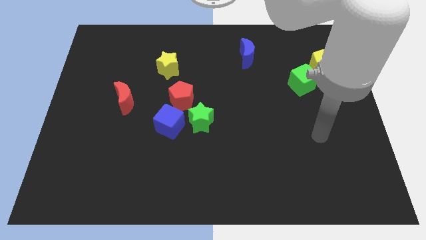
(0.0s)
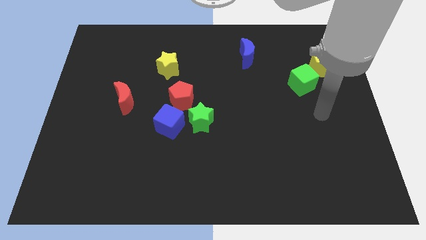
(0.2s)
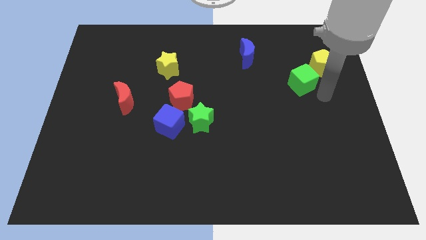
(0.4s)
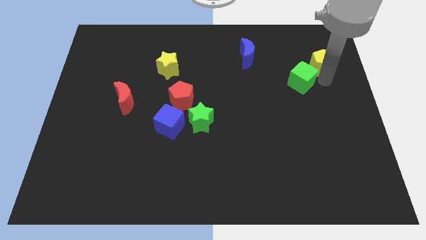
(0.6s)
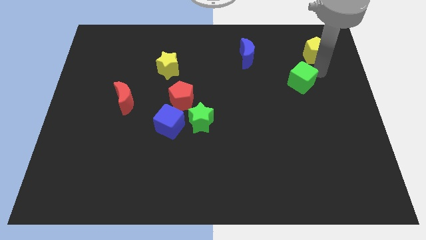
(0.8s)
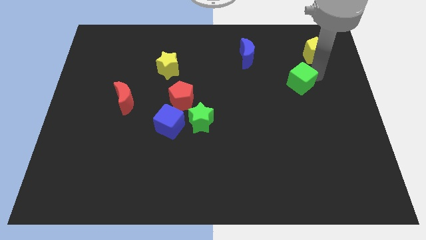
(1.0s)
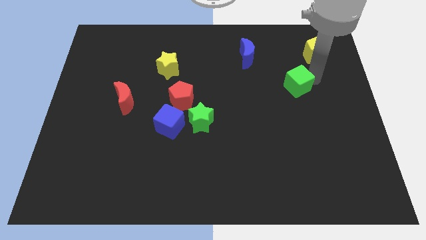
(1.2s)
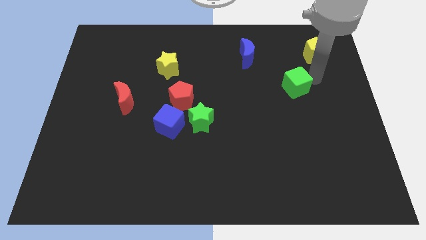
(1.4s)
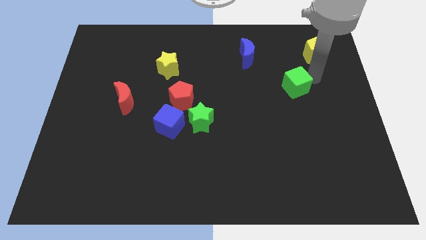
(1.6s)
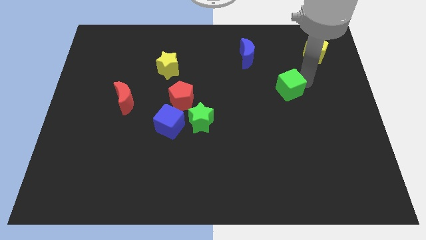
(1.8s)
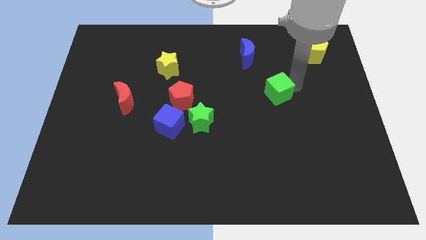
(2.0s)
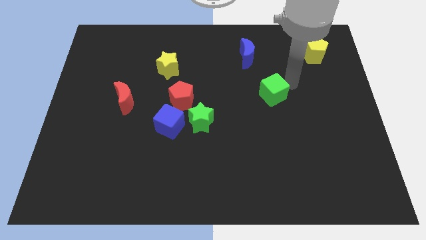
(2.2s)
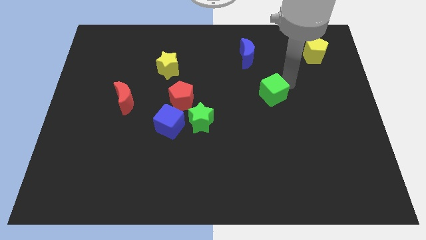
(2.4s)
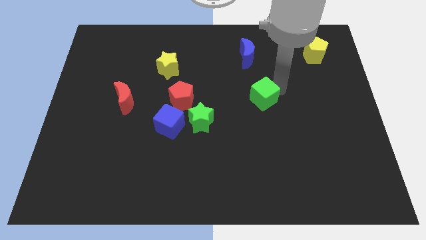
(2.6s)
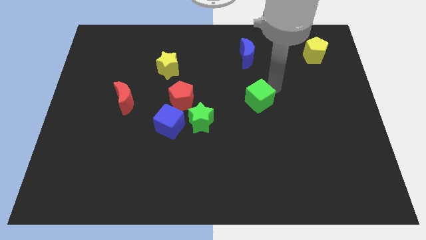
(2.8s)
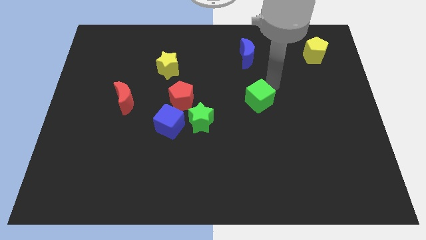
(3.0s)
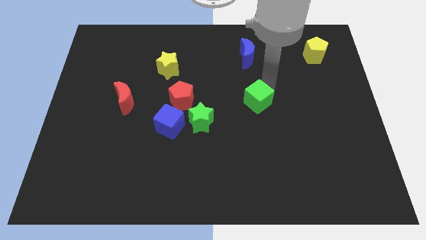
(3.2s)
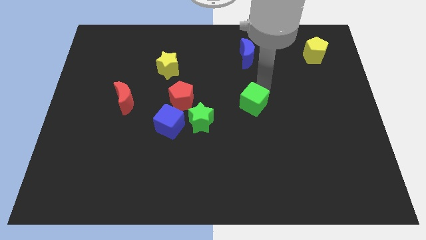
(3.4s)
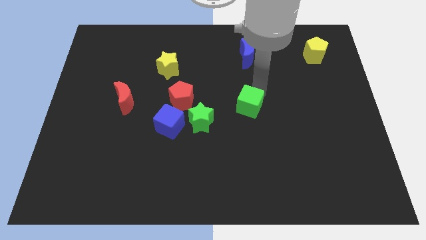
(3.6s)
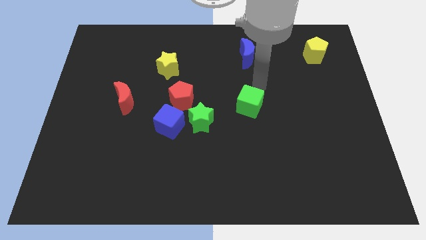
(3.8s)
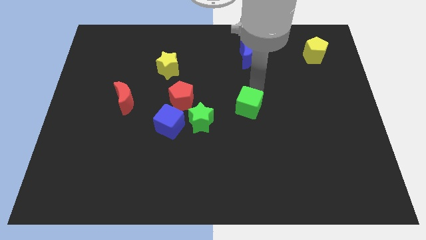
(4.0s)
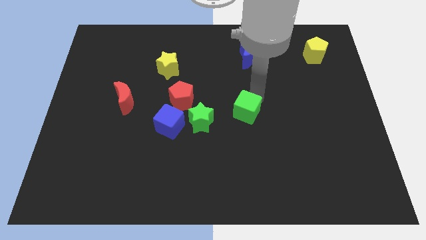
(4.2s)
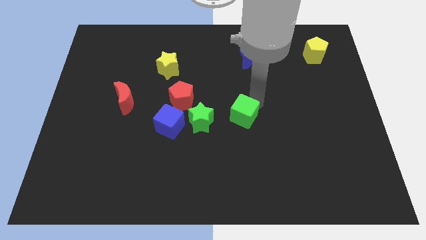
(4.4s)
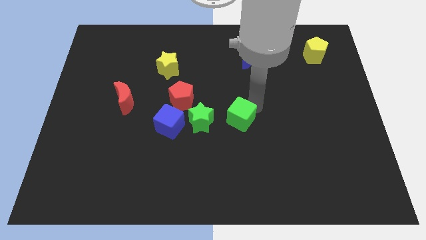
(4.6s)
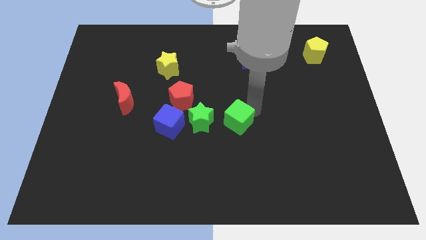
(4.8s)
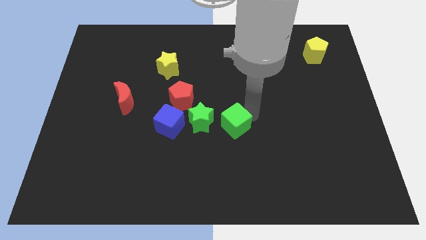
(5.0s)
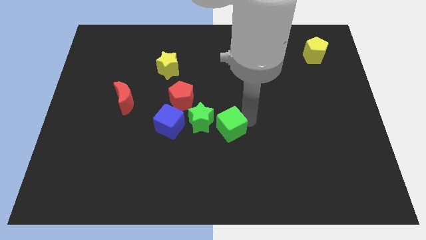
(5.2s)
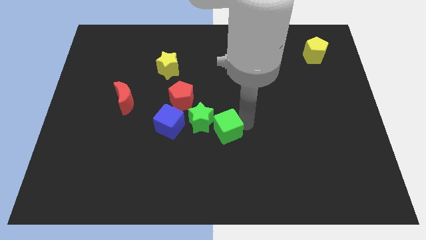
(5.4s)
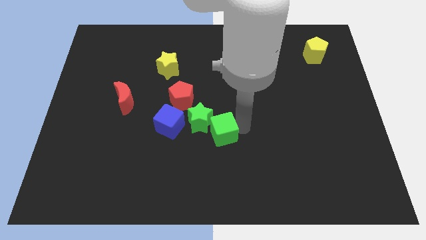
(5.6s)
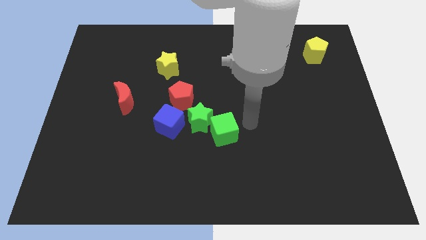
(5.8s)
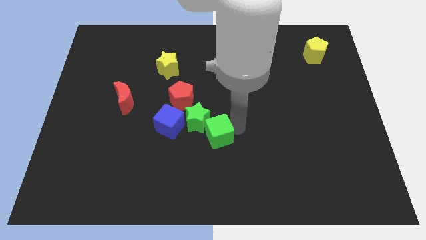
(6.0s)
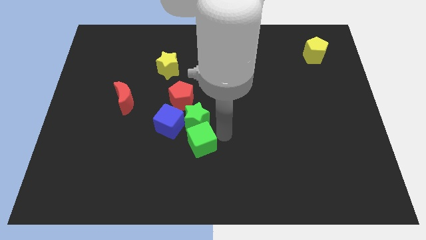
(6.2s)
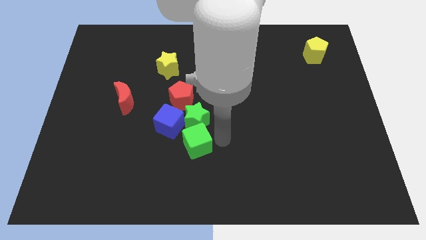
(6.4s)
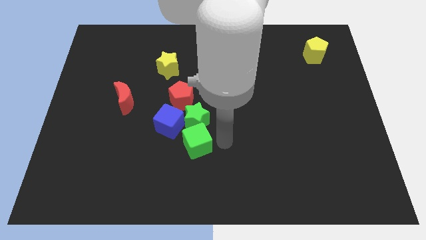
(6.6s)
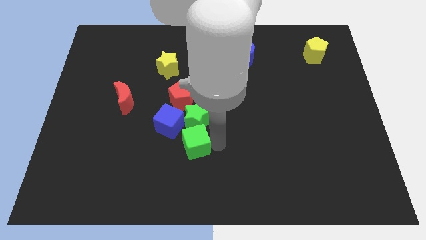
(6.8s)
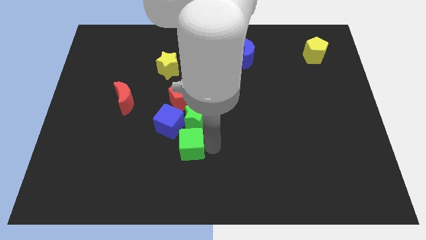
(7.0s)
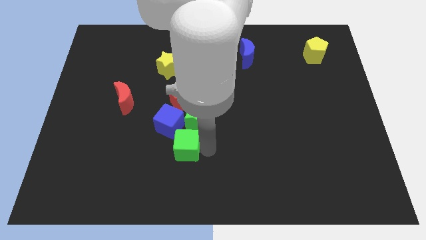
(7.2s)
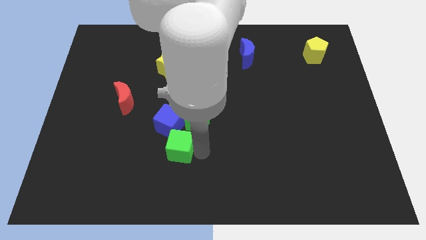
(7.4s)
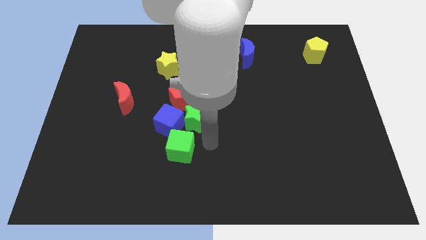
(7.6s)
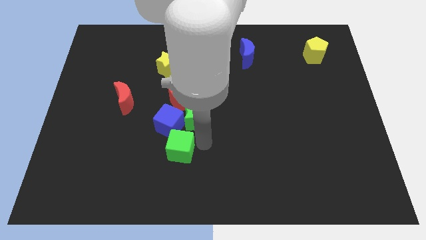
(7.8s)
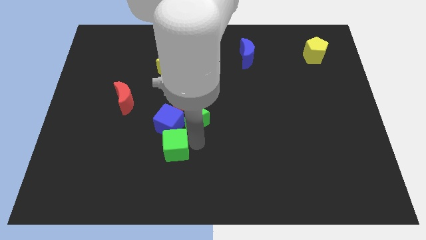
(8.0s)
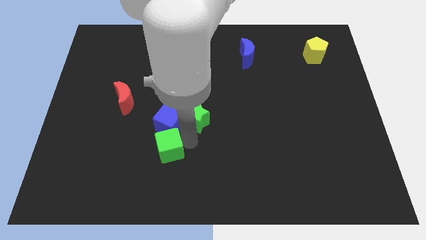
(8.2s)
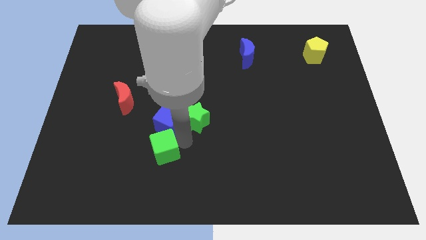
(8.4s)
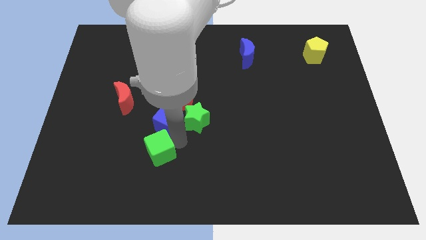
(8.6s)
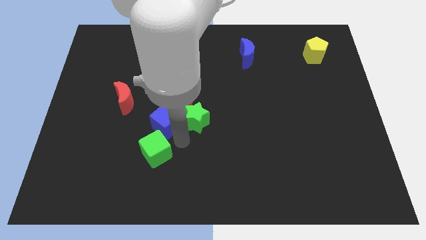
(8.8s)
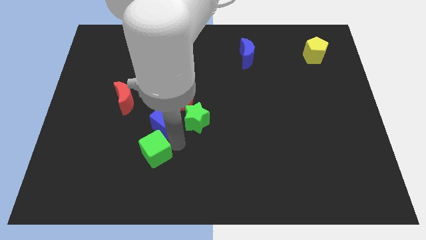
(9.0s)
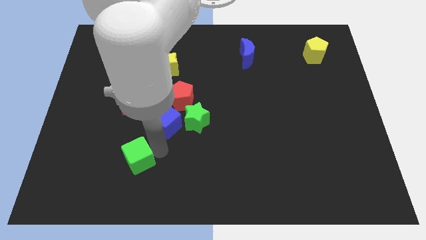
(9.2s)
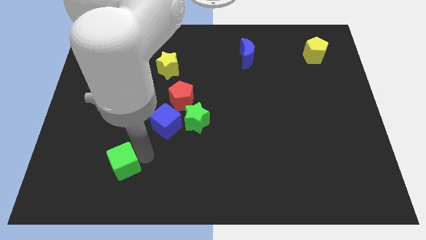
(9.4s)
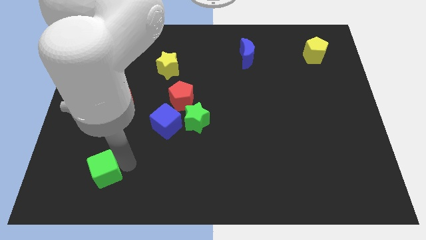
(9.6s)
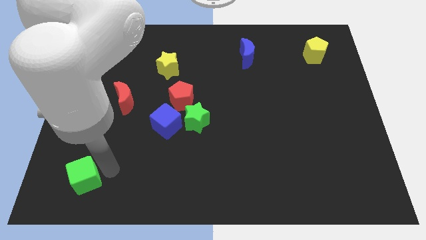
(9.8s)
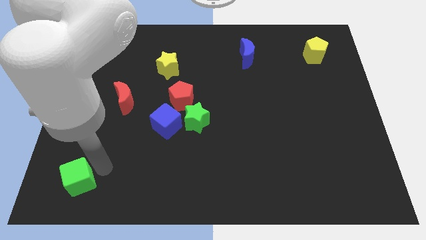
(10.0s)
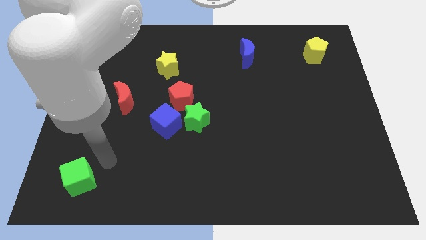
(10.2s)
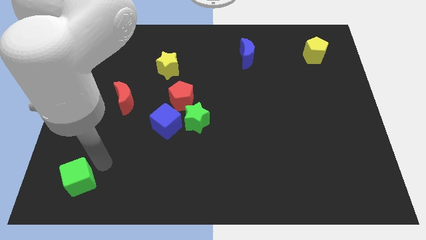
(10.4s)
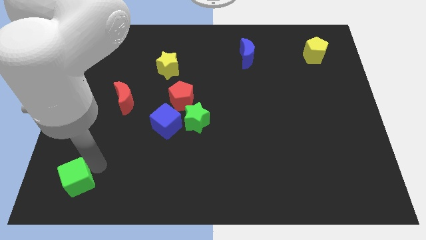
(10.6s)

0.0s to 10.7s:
push the green cube to the bottom left corner

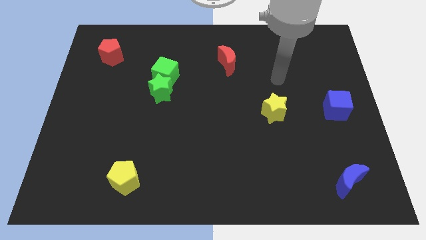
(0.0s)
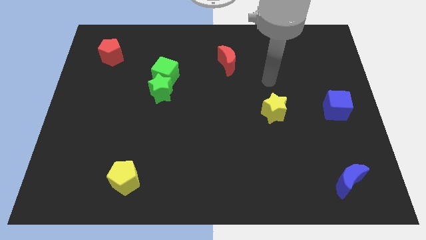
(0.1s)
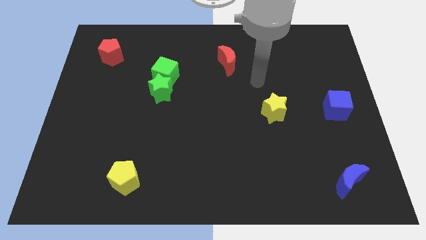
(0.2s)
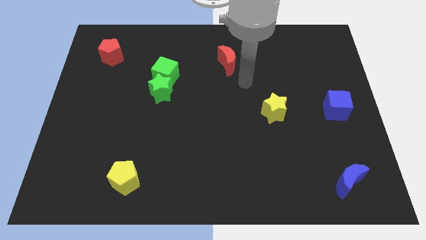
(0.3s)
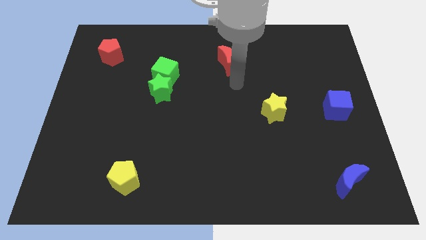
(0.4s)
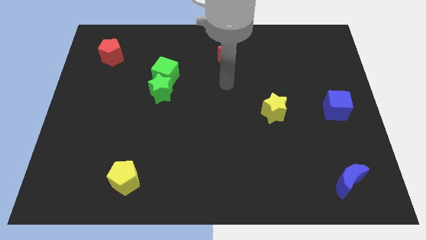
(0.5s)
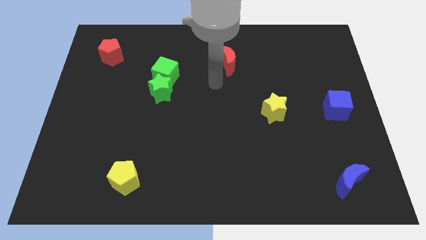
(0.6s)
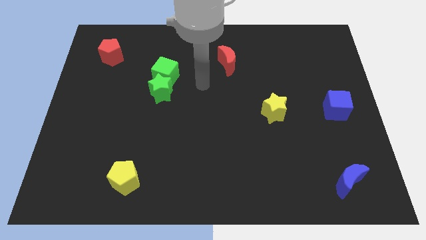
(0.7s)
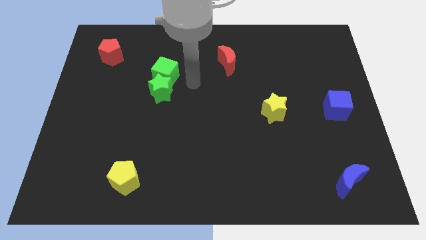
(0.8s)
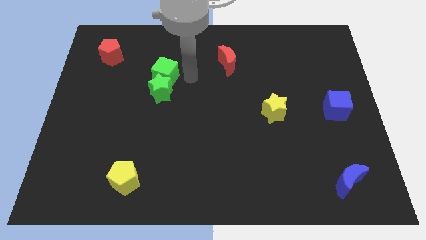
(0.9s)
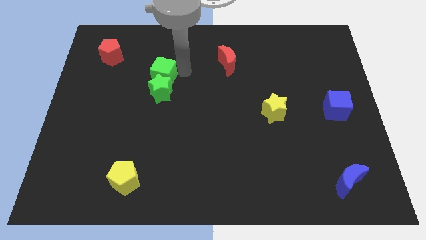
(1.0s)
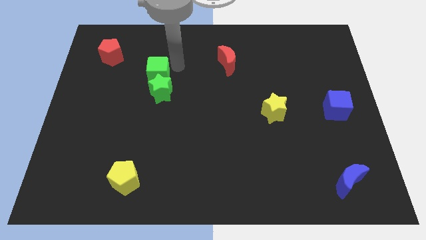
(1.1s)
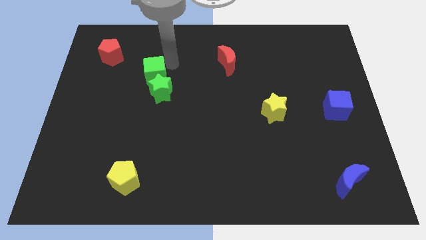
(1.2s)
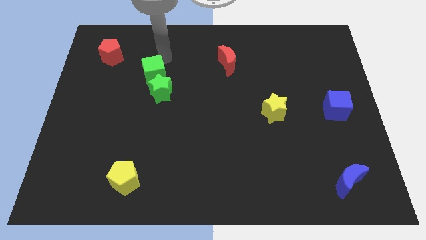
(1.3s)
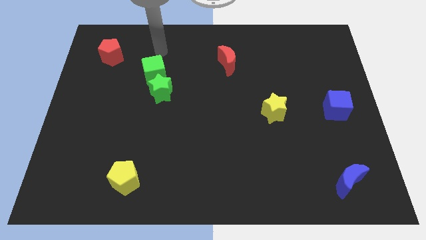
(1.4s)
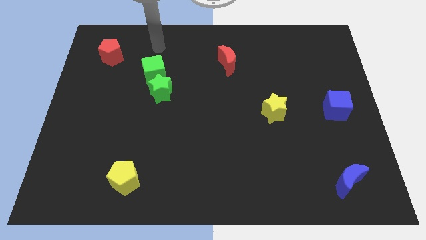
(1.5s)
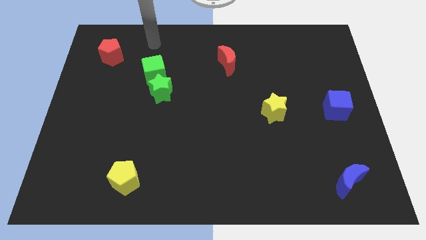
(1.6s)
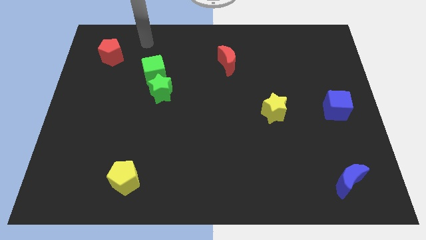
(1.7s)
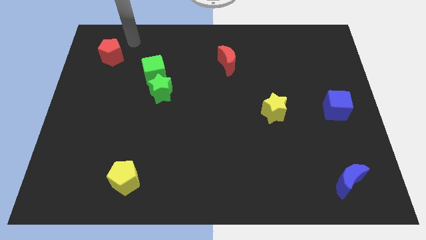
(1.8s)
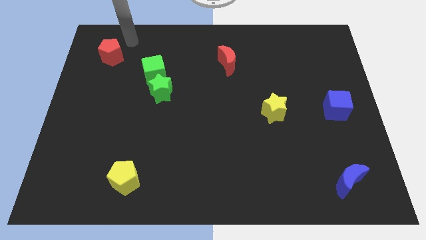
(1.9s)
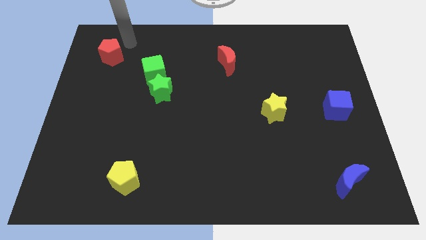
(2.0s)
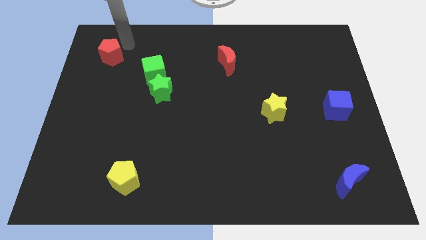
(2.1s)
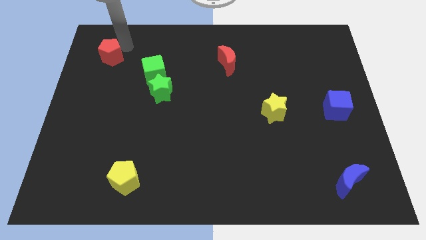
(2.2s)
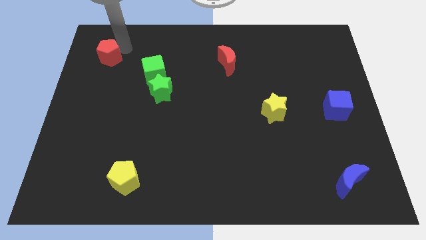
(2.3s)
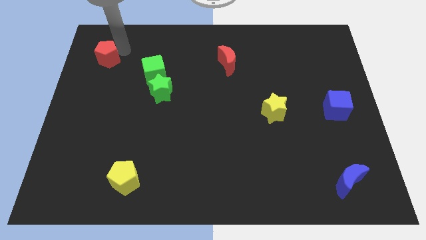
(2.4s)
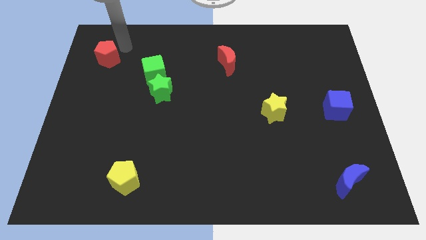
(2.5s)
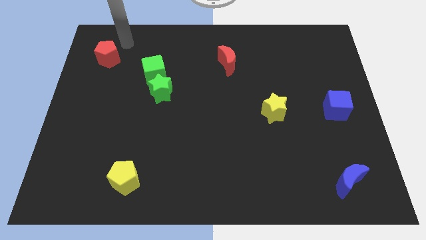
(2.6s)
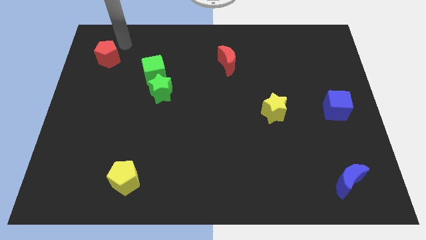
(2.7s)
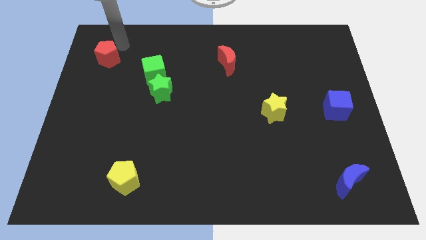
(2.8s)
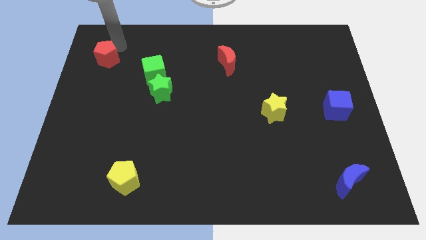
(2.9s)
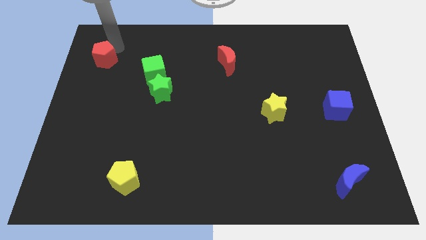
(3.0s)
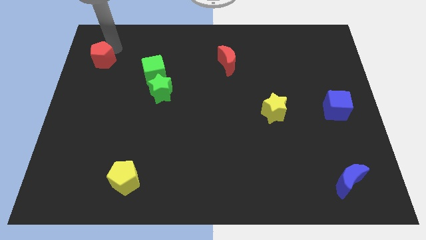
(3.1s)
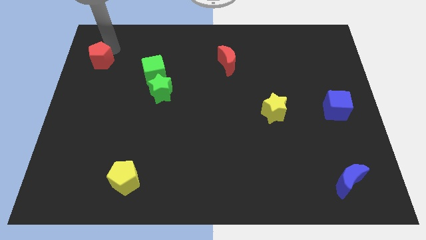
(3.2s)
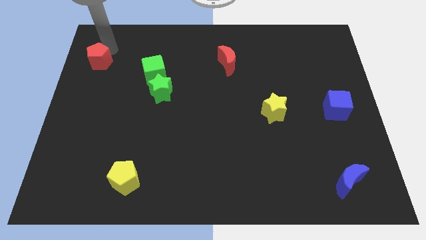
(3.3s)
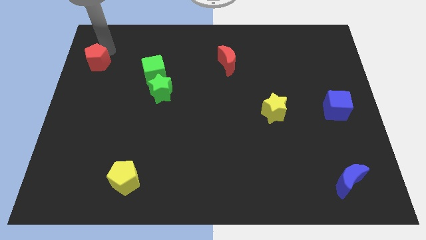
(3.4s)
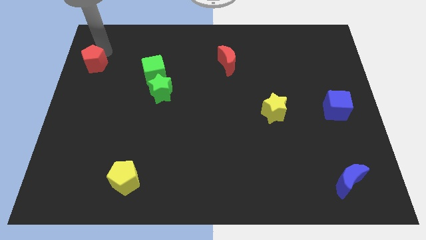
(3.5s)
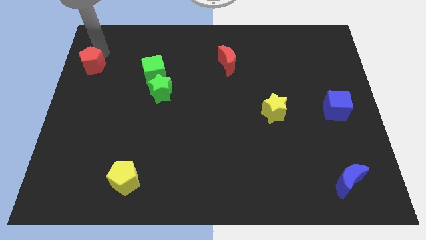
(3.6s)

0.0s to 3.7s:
push the red pentagon to the center left
